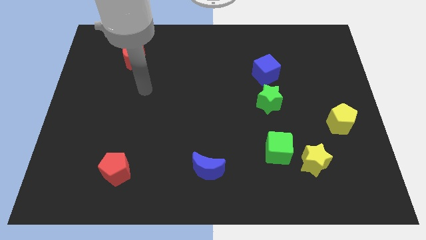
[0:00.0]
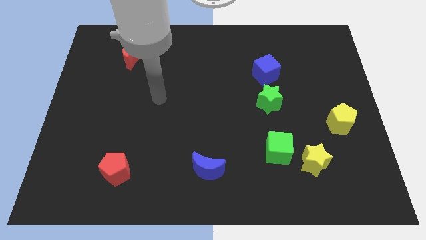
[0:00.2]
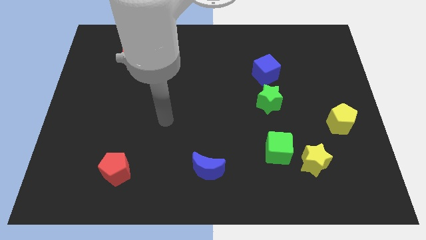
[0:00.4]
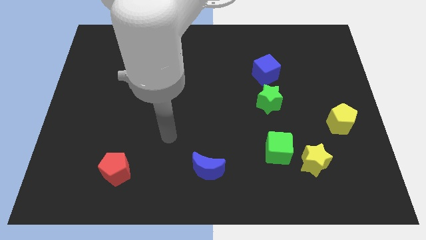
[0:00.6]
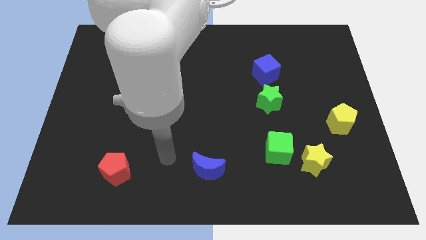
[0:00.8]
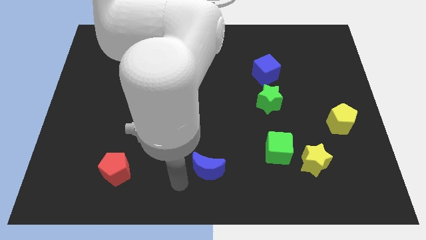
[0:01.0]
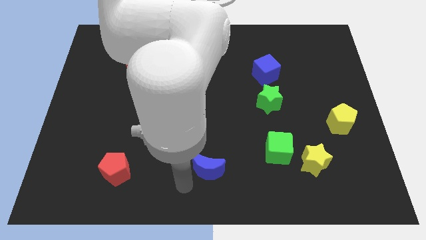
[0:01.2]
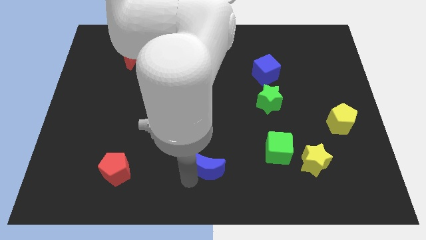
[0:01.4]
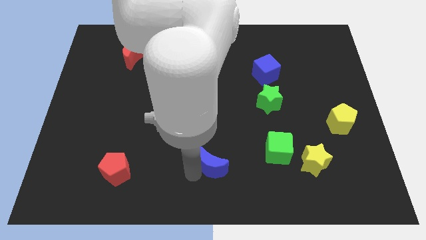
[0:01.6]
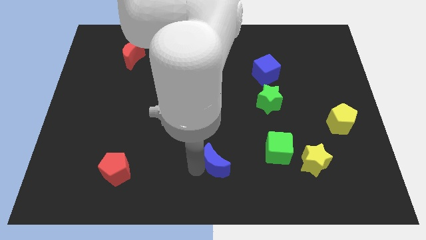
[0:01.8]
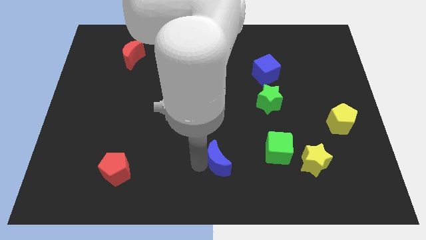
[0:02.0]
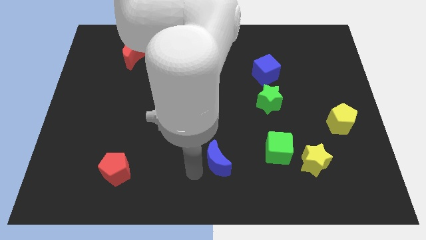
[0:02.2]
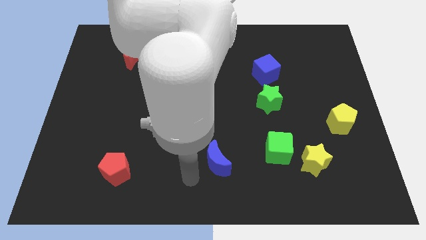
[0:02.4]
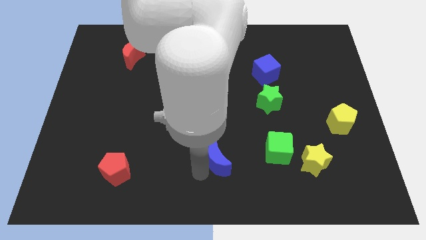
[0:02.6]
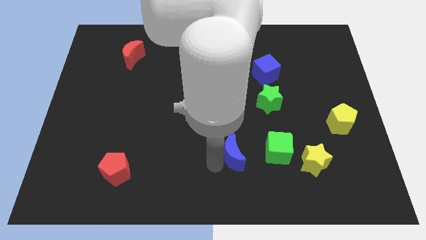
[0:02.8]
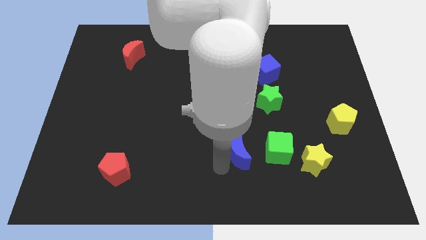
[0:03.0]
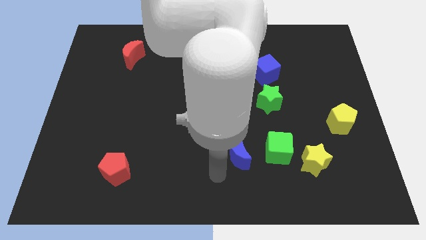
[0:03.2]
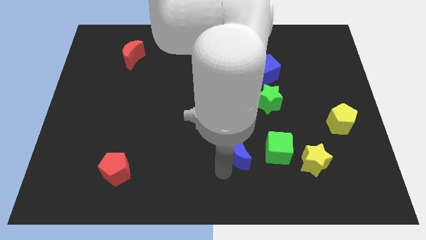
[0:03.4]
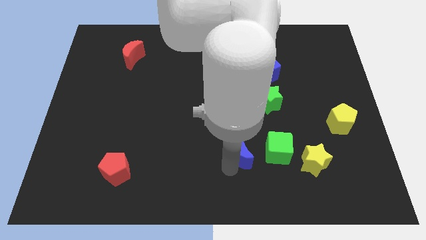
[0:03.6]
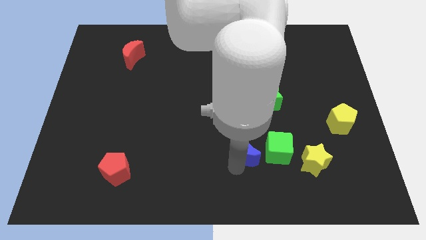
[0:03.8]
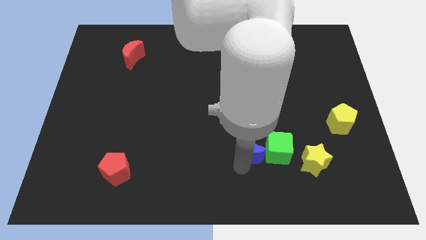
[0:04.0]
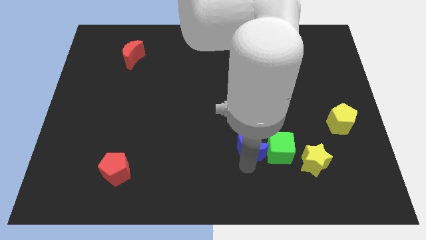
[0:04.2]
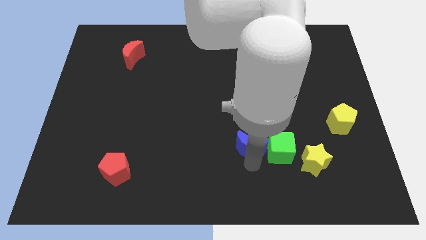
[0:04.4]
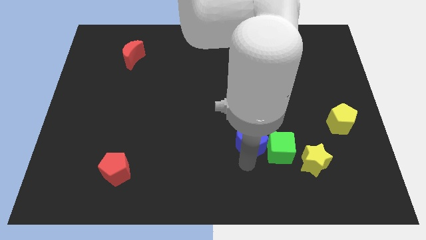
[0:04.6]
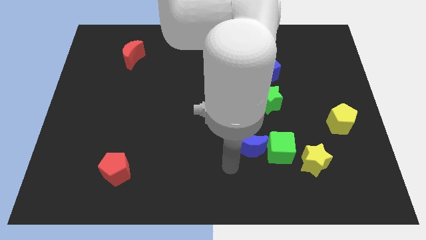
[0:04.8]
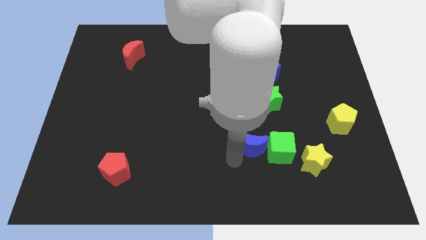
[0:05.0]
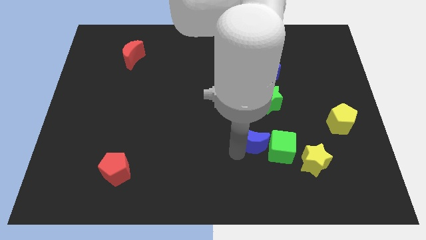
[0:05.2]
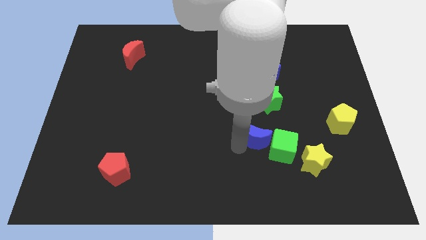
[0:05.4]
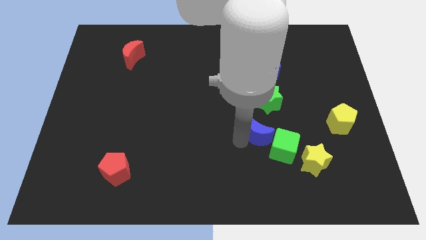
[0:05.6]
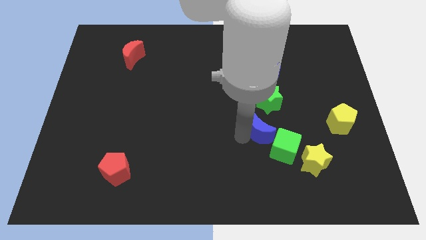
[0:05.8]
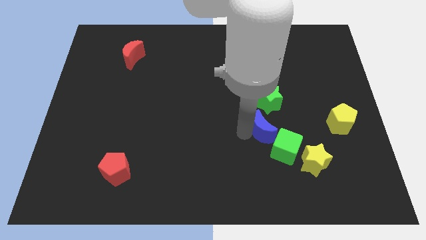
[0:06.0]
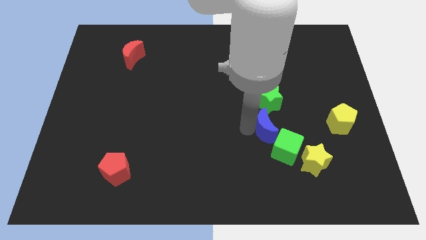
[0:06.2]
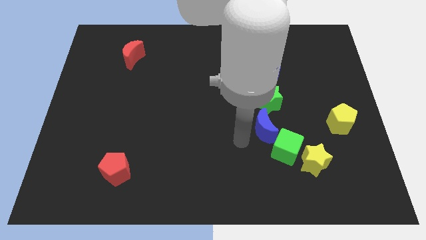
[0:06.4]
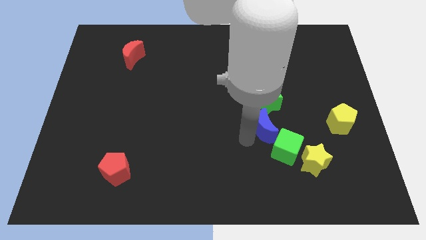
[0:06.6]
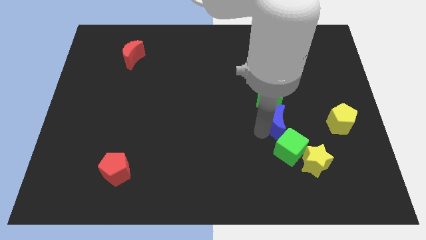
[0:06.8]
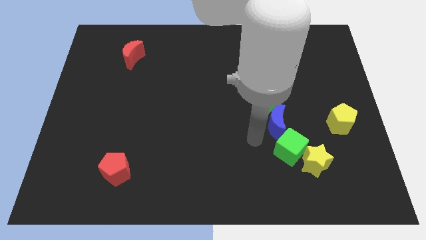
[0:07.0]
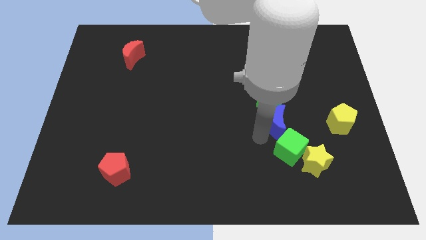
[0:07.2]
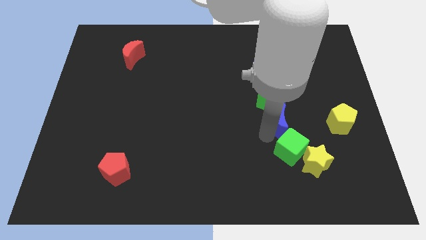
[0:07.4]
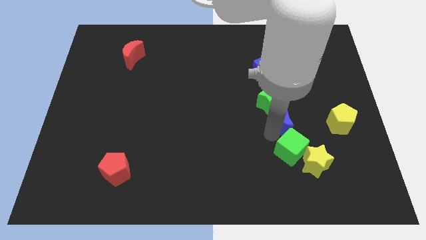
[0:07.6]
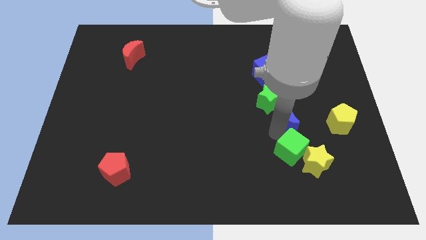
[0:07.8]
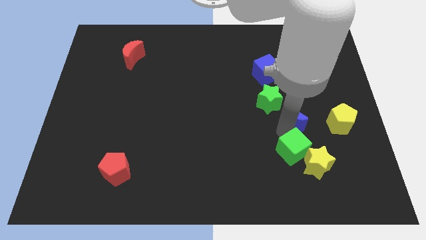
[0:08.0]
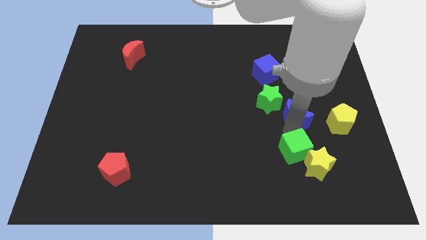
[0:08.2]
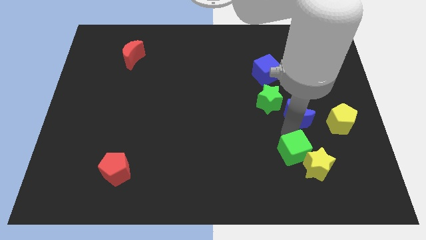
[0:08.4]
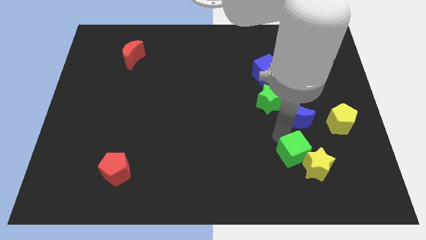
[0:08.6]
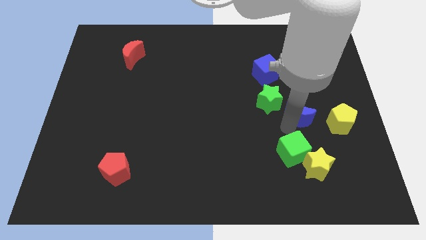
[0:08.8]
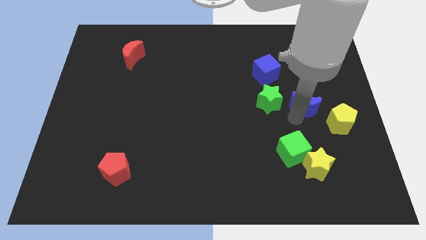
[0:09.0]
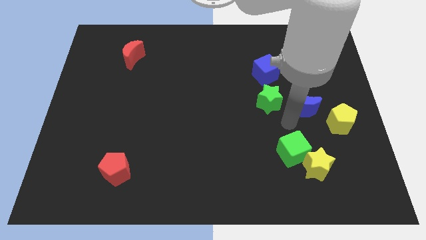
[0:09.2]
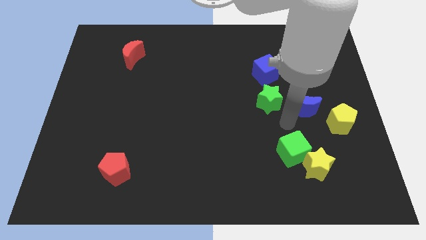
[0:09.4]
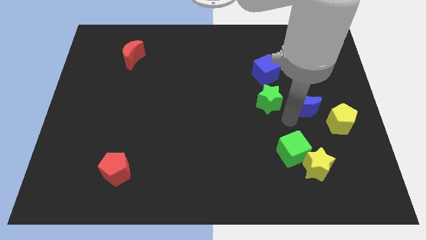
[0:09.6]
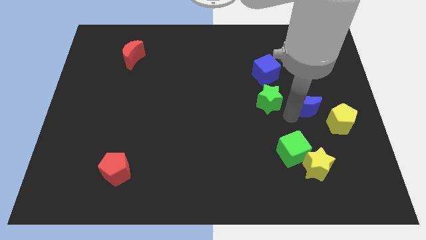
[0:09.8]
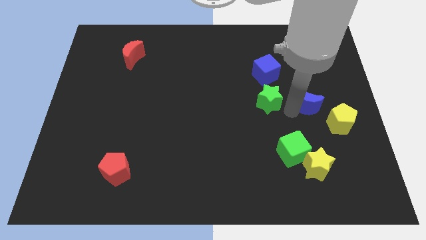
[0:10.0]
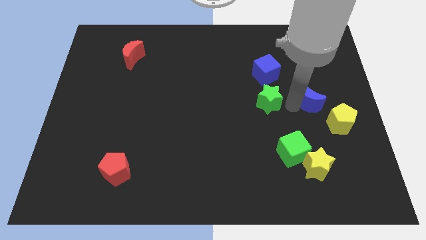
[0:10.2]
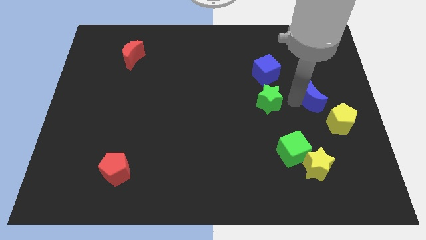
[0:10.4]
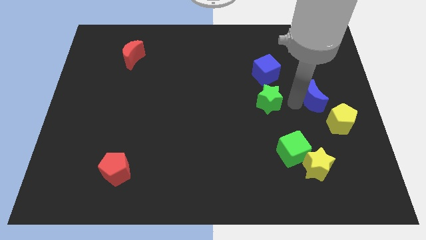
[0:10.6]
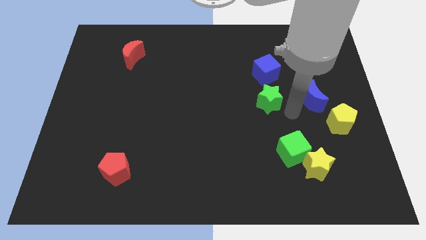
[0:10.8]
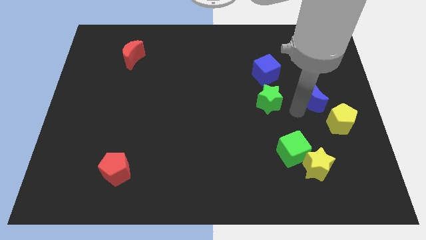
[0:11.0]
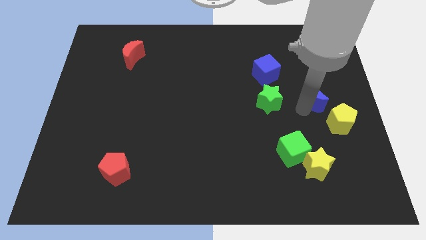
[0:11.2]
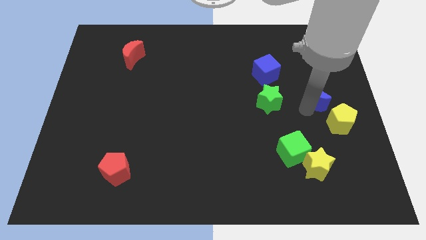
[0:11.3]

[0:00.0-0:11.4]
move the blue moon above the yellow pentagon

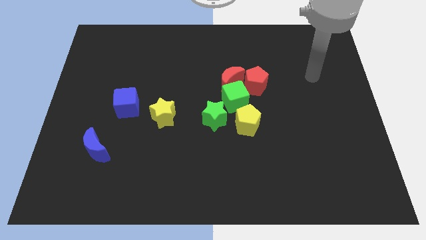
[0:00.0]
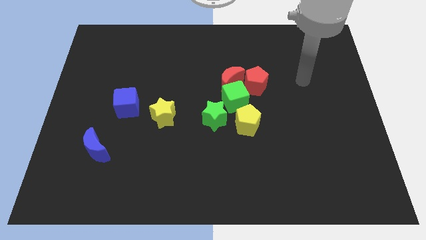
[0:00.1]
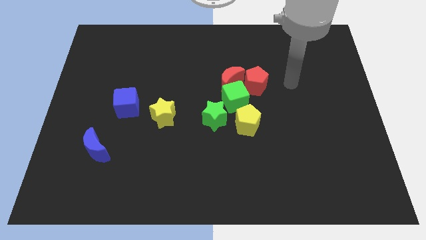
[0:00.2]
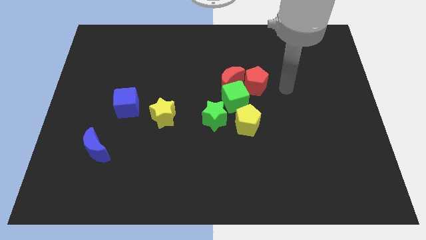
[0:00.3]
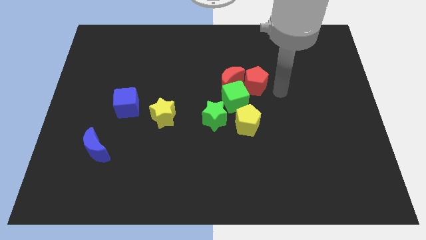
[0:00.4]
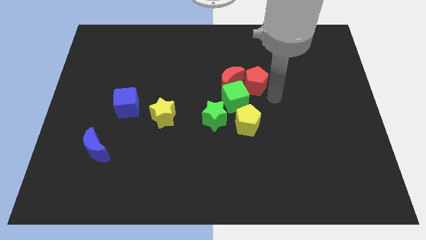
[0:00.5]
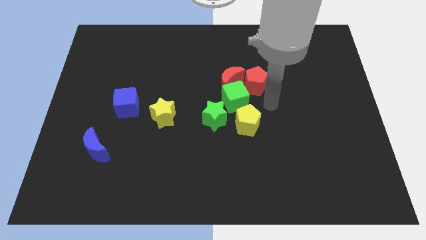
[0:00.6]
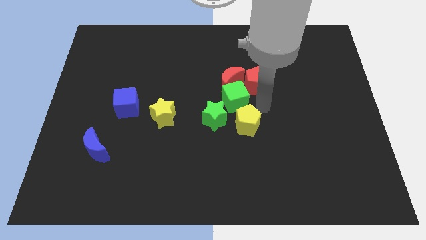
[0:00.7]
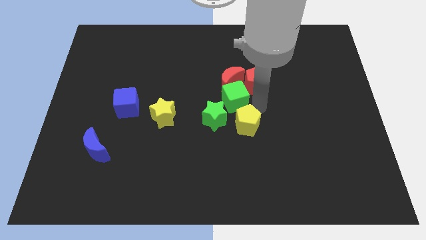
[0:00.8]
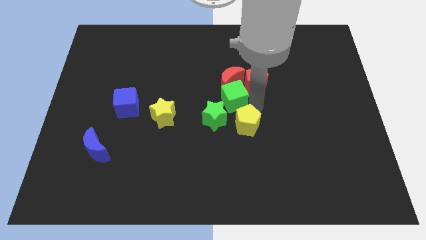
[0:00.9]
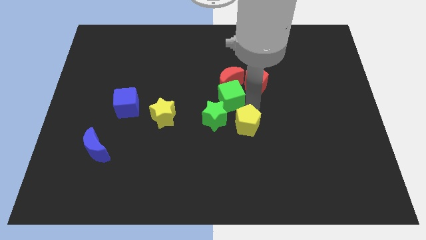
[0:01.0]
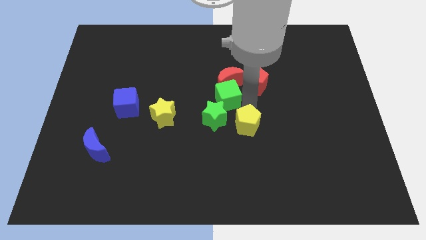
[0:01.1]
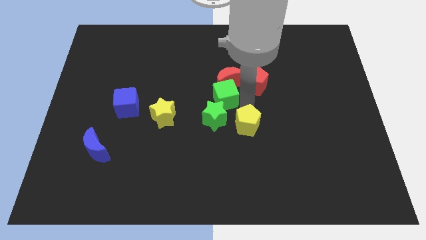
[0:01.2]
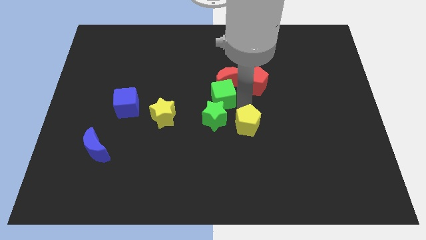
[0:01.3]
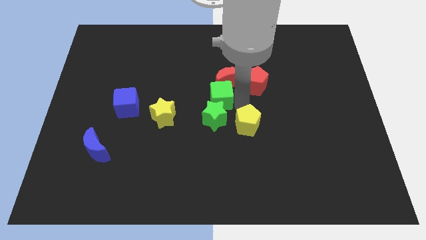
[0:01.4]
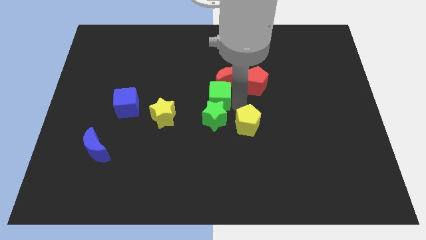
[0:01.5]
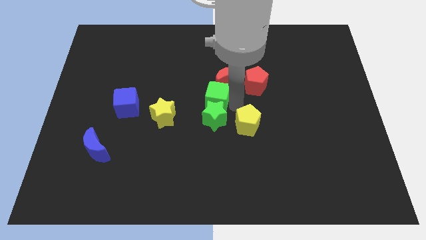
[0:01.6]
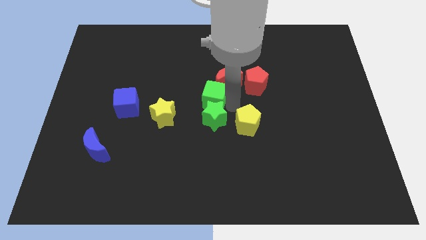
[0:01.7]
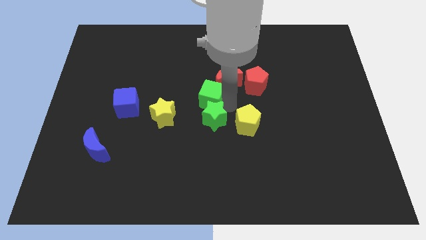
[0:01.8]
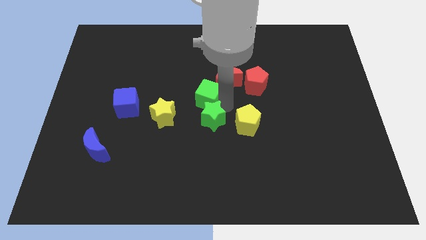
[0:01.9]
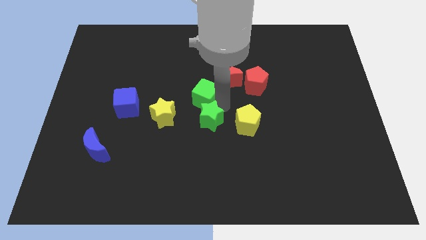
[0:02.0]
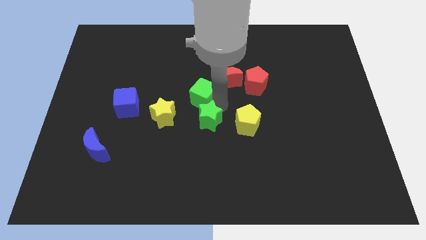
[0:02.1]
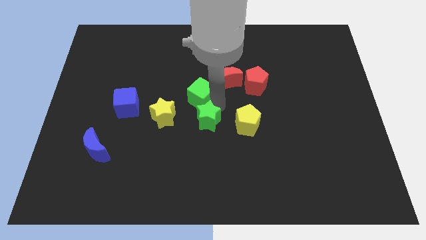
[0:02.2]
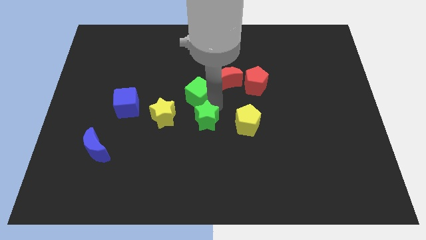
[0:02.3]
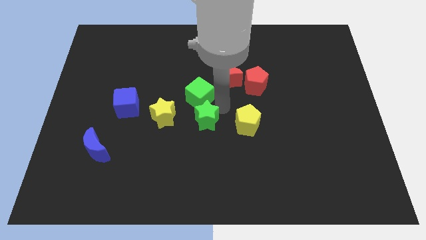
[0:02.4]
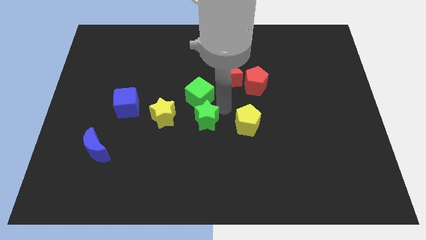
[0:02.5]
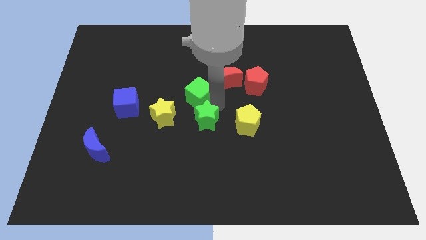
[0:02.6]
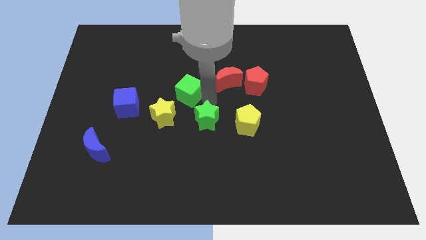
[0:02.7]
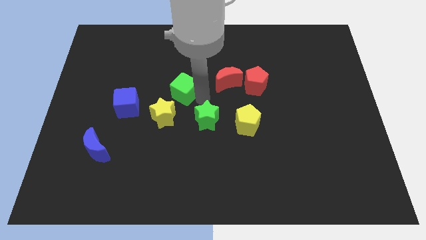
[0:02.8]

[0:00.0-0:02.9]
move the green cube above the yellow star
